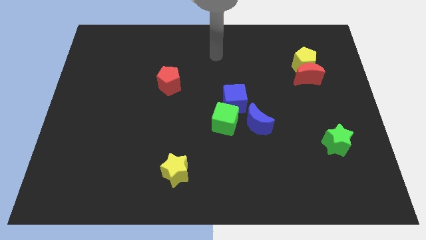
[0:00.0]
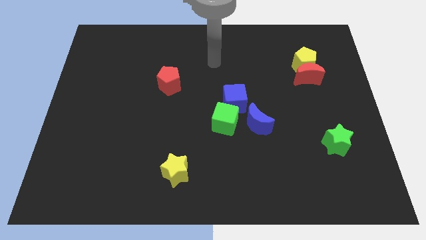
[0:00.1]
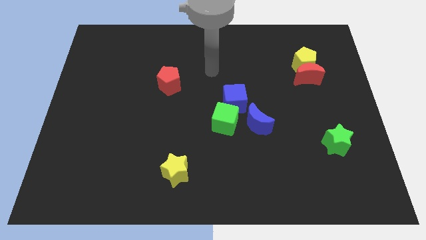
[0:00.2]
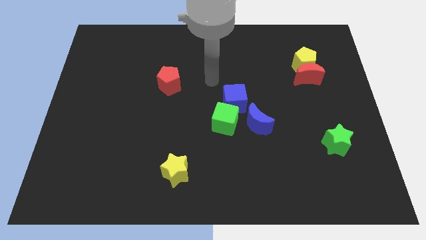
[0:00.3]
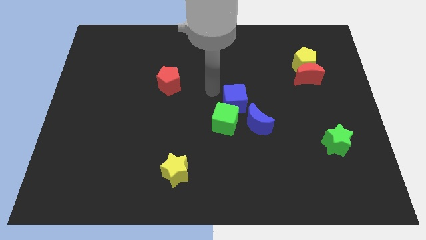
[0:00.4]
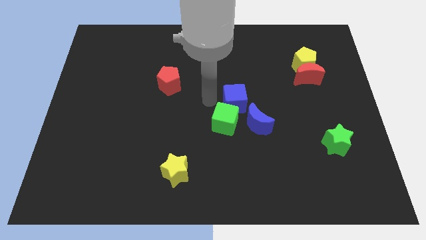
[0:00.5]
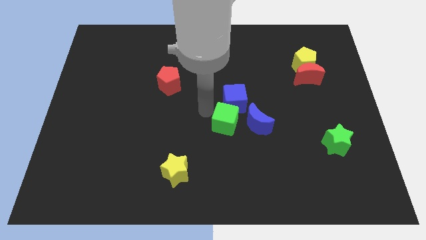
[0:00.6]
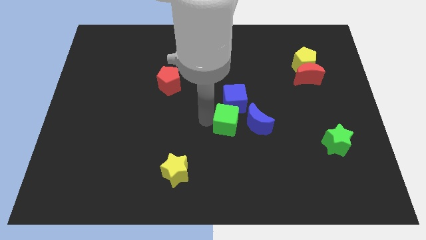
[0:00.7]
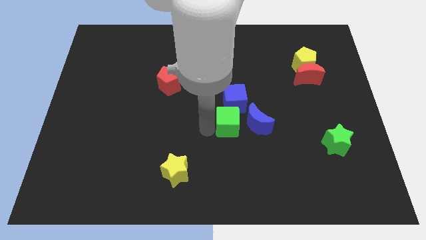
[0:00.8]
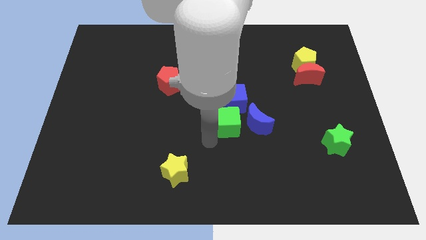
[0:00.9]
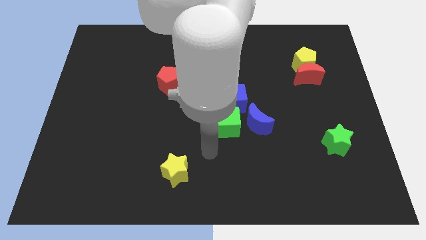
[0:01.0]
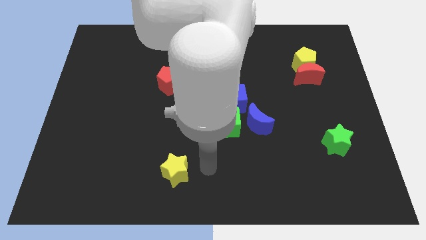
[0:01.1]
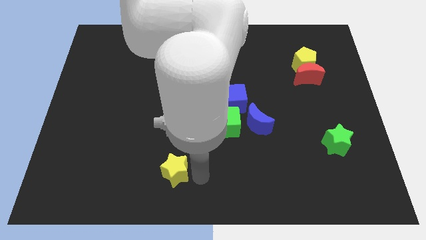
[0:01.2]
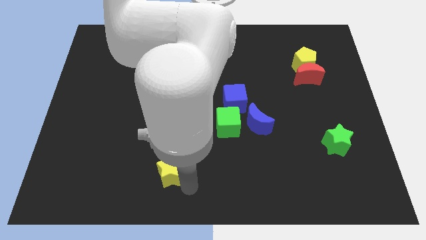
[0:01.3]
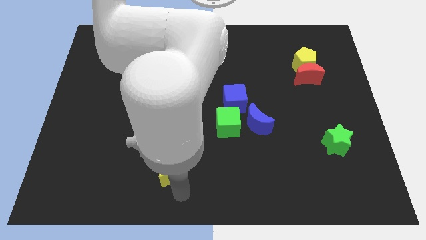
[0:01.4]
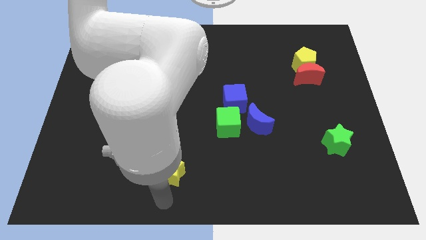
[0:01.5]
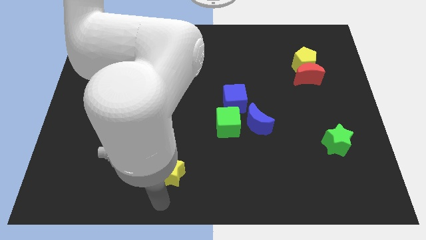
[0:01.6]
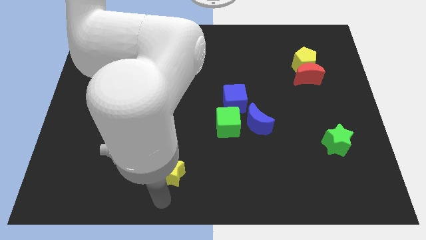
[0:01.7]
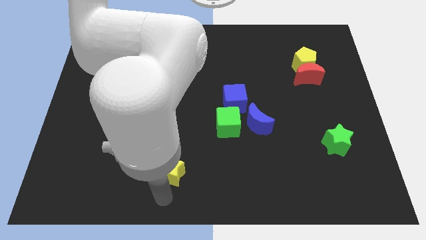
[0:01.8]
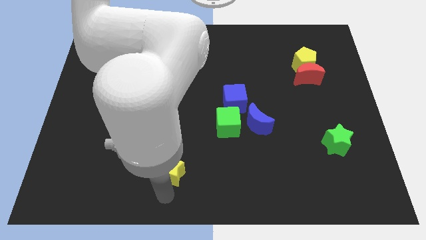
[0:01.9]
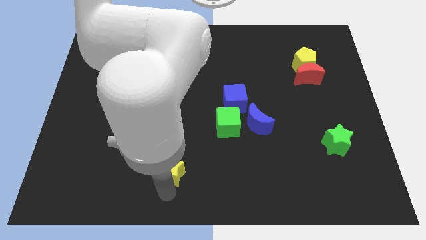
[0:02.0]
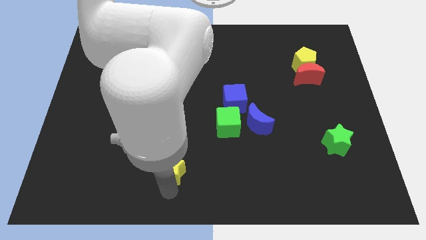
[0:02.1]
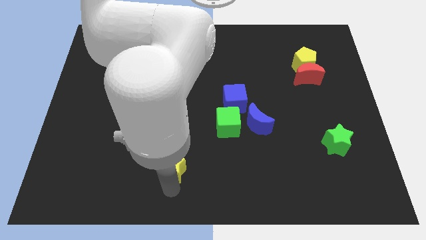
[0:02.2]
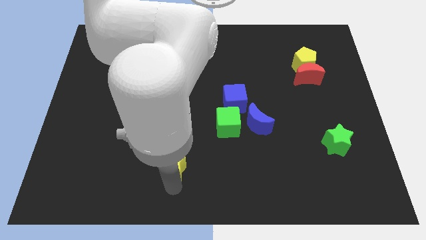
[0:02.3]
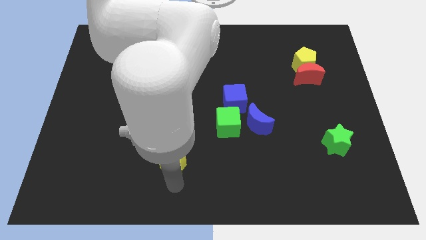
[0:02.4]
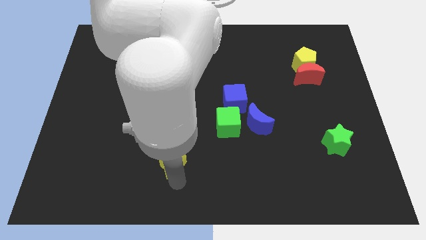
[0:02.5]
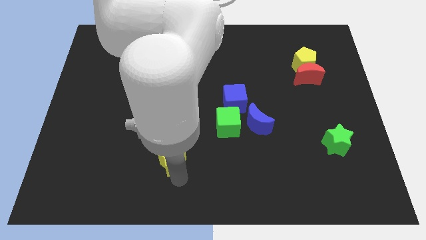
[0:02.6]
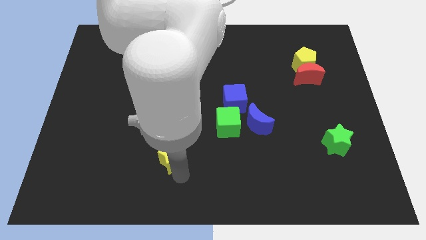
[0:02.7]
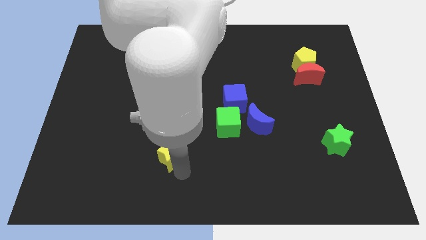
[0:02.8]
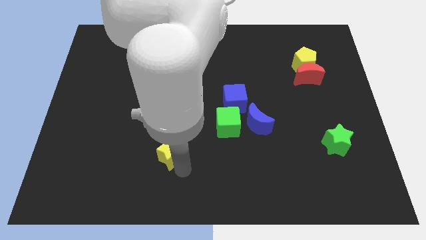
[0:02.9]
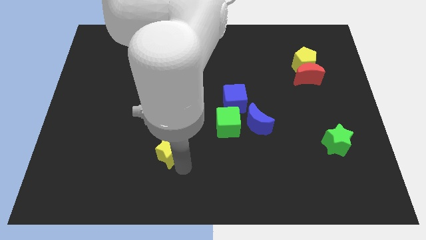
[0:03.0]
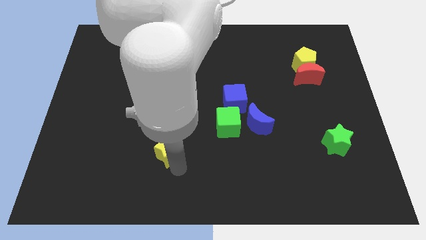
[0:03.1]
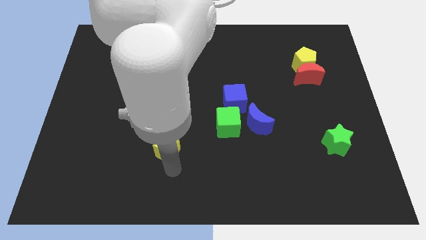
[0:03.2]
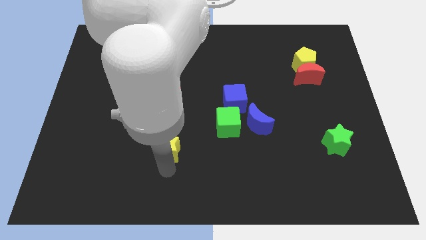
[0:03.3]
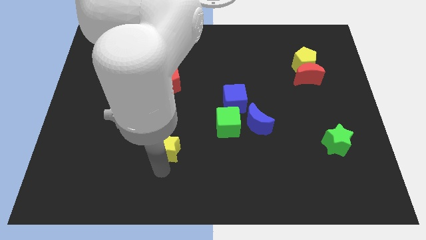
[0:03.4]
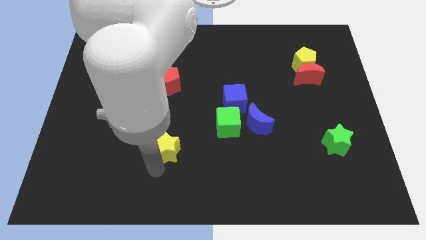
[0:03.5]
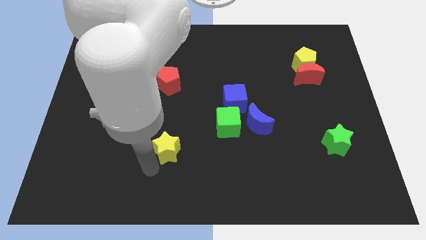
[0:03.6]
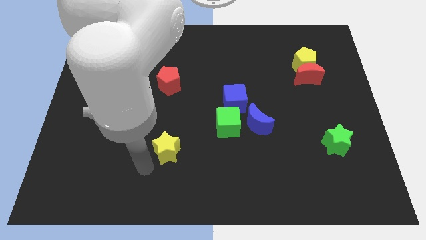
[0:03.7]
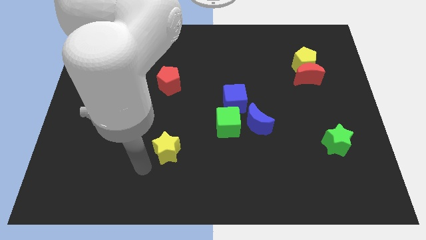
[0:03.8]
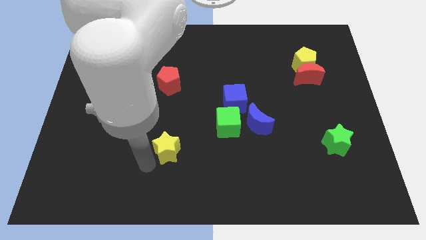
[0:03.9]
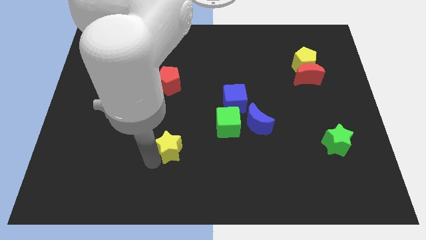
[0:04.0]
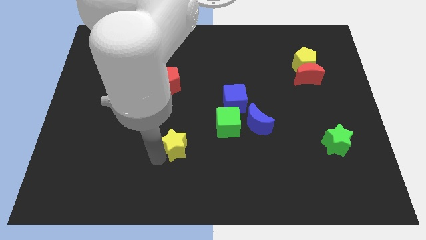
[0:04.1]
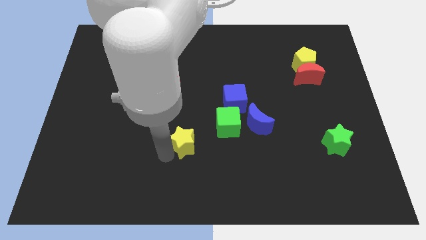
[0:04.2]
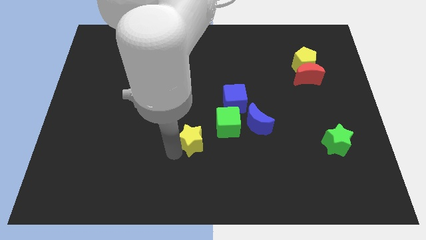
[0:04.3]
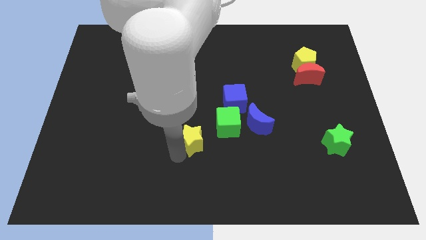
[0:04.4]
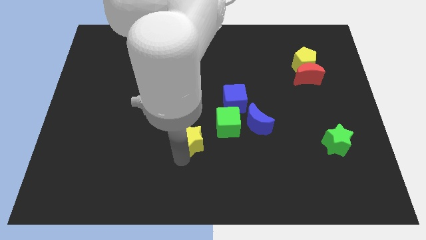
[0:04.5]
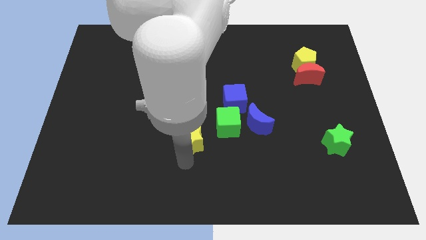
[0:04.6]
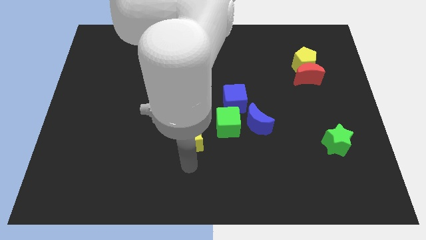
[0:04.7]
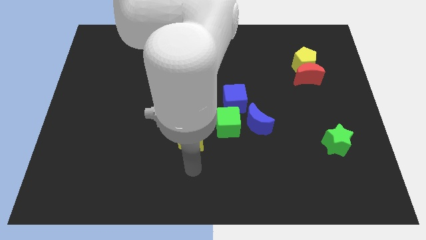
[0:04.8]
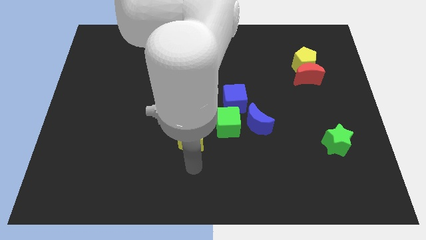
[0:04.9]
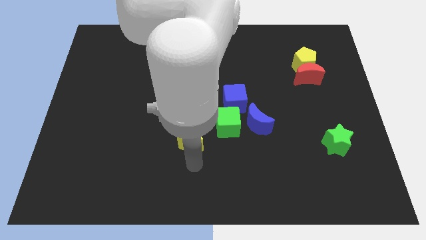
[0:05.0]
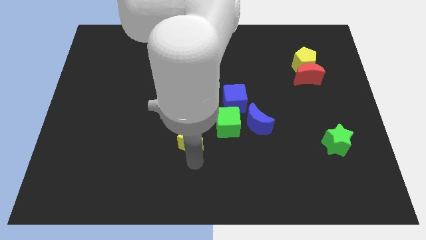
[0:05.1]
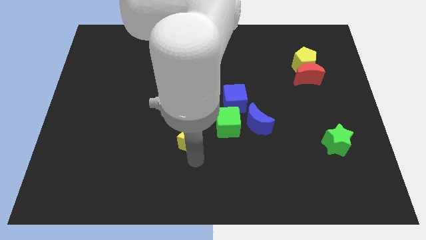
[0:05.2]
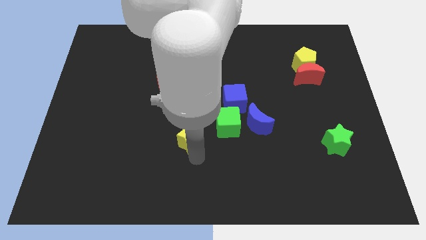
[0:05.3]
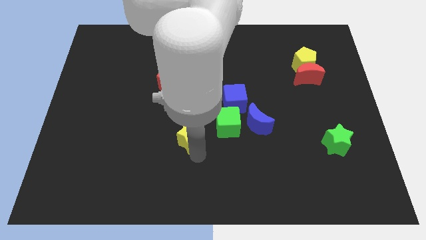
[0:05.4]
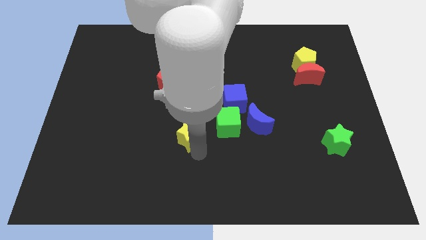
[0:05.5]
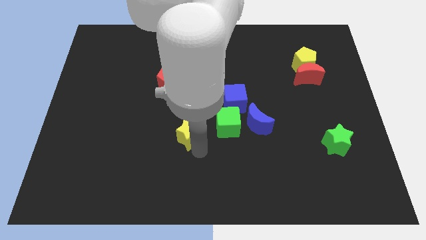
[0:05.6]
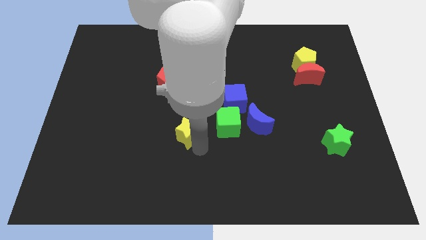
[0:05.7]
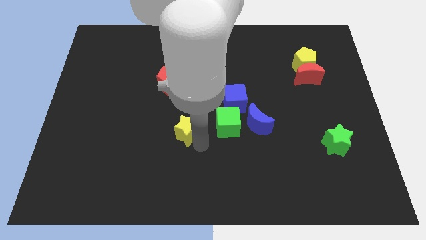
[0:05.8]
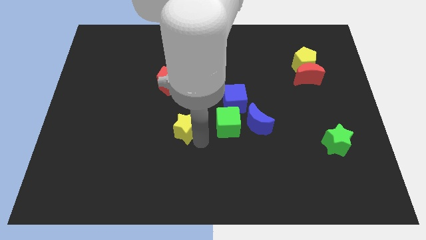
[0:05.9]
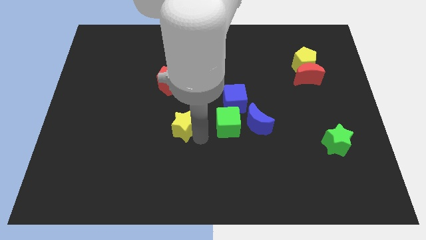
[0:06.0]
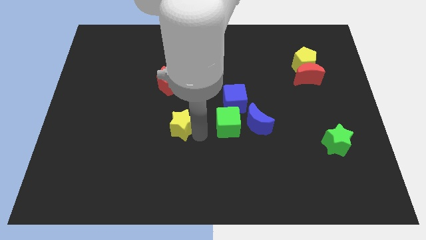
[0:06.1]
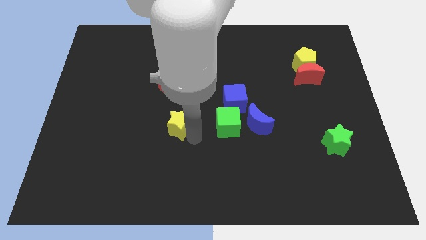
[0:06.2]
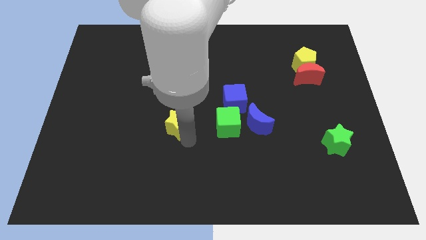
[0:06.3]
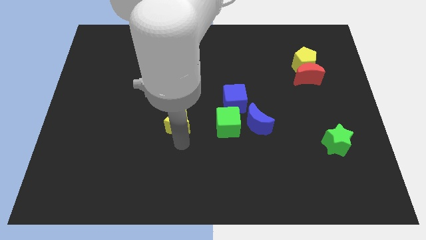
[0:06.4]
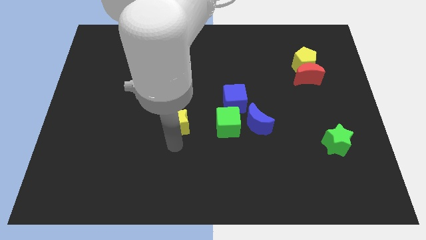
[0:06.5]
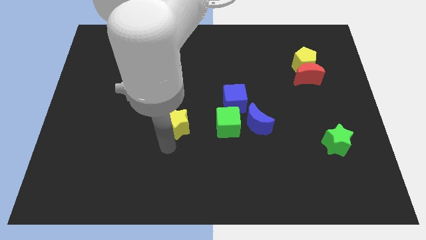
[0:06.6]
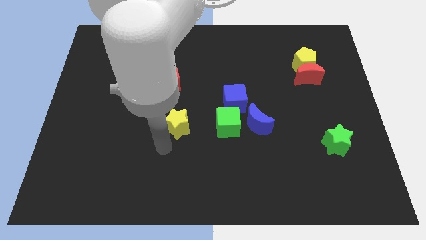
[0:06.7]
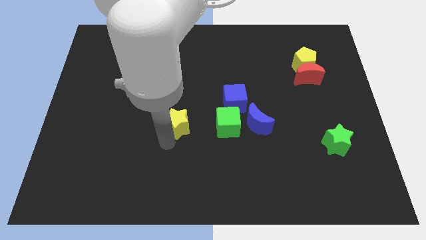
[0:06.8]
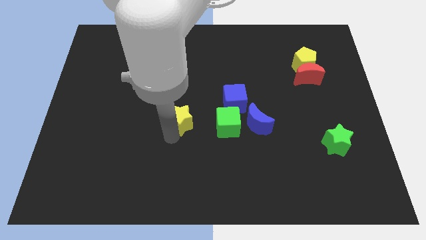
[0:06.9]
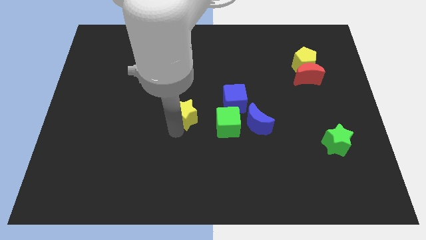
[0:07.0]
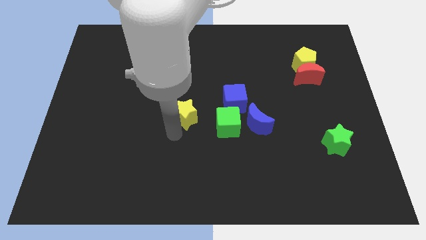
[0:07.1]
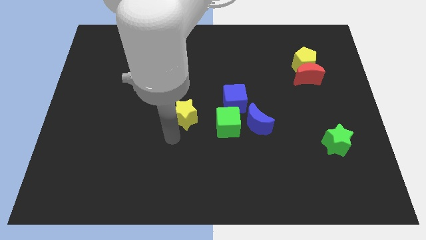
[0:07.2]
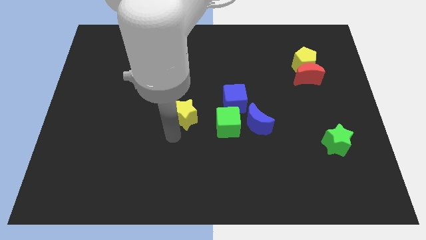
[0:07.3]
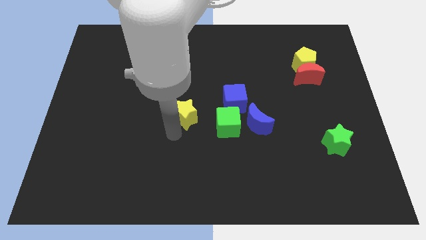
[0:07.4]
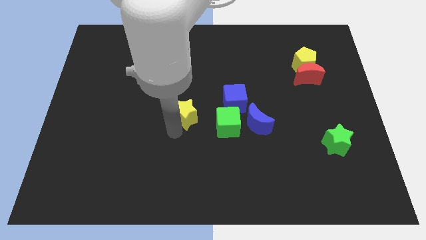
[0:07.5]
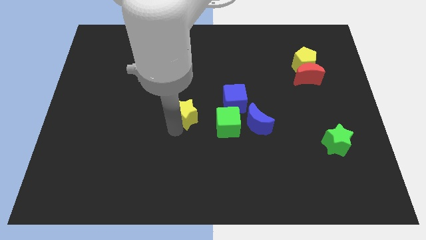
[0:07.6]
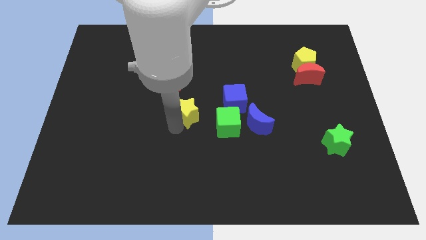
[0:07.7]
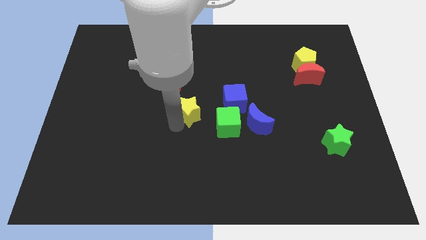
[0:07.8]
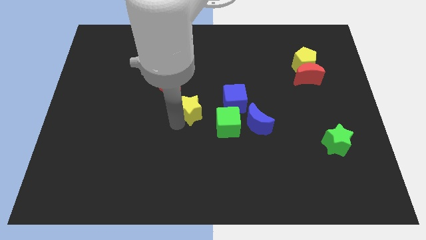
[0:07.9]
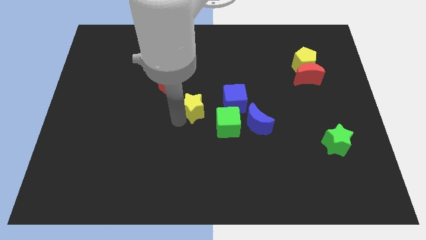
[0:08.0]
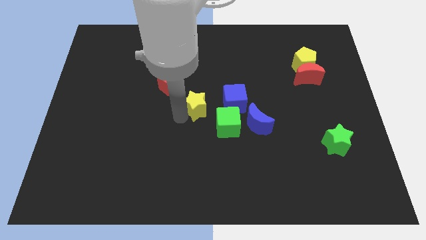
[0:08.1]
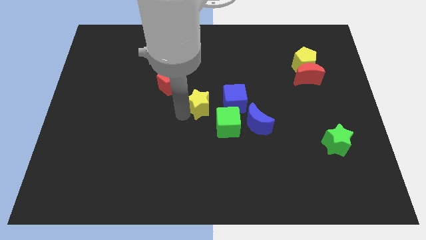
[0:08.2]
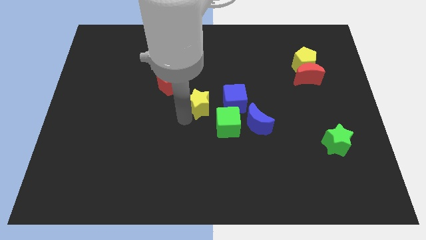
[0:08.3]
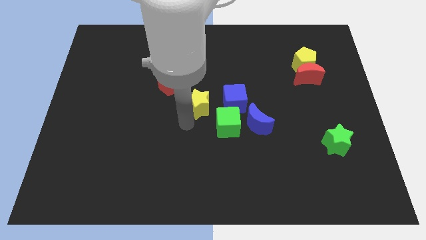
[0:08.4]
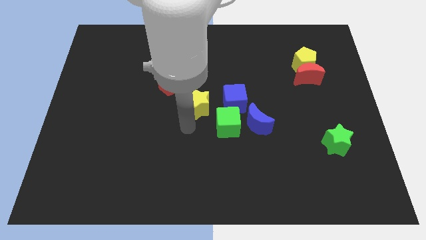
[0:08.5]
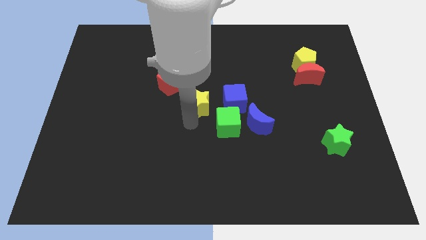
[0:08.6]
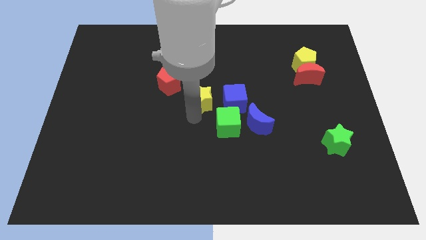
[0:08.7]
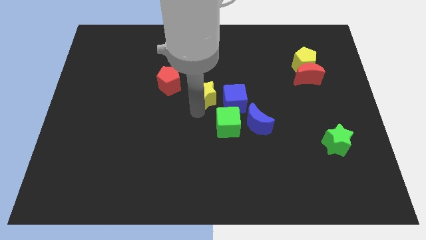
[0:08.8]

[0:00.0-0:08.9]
move the yellow star to the top left side of the blue cube
